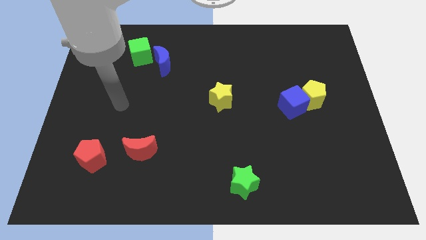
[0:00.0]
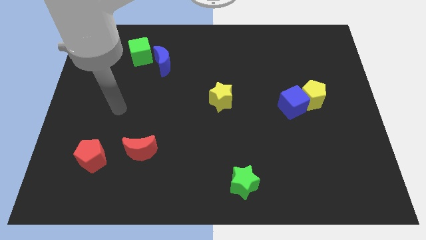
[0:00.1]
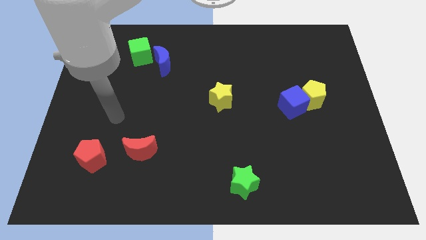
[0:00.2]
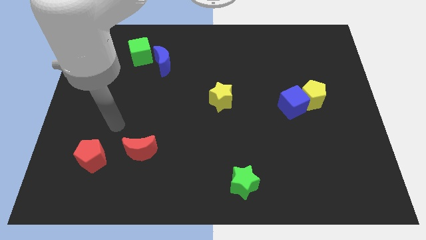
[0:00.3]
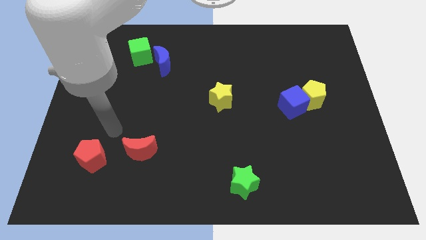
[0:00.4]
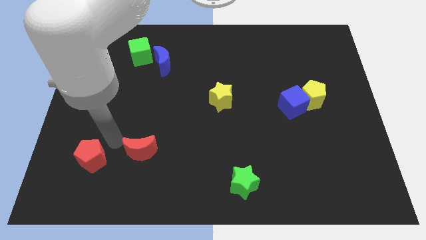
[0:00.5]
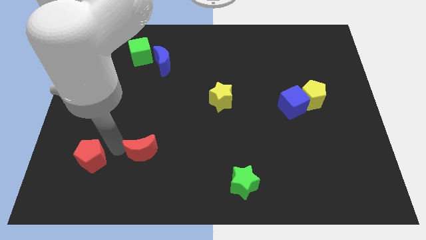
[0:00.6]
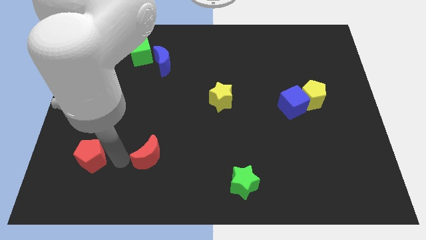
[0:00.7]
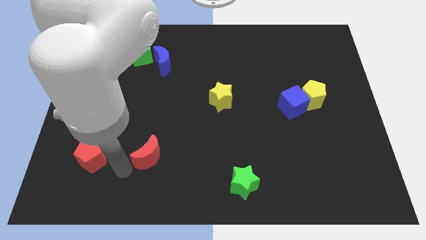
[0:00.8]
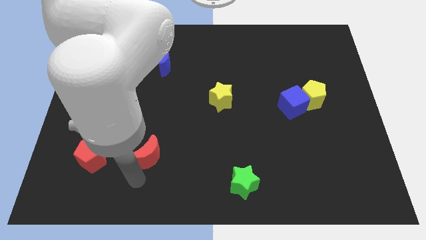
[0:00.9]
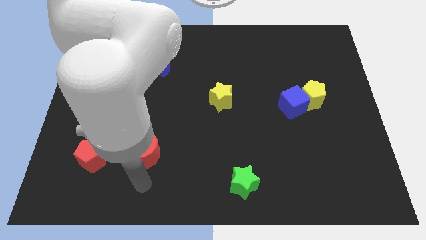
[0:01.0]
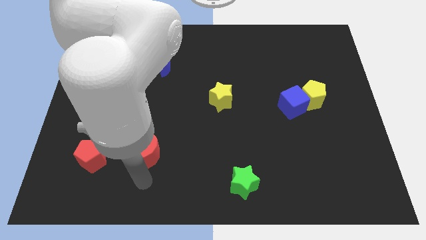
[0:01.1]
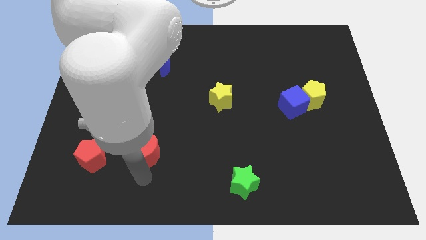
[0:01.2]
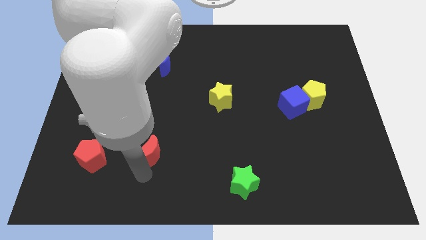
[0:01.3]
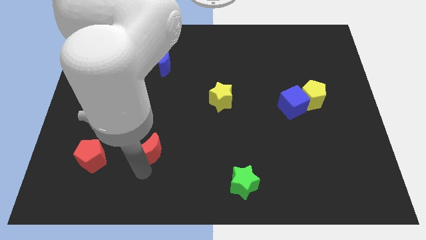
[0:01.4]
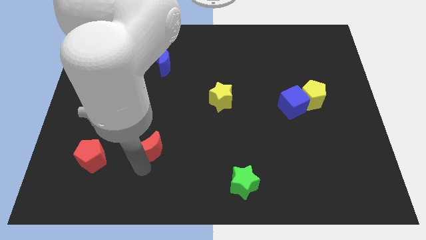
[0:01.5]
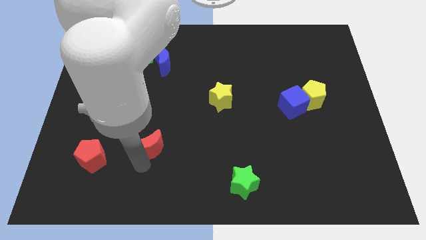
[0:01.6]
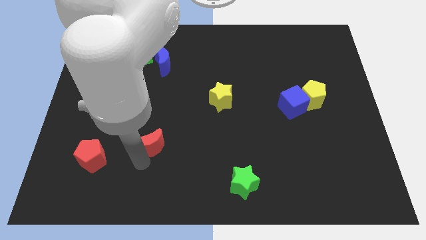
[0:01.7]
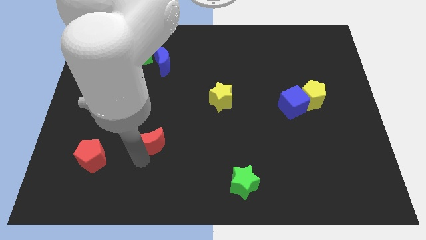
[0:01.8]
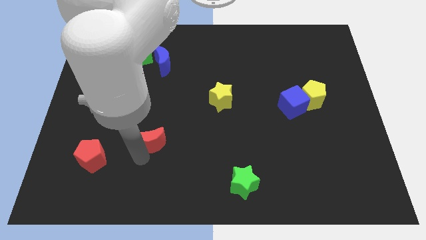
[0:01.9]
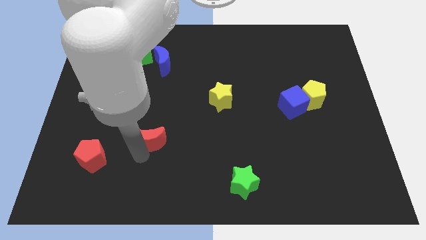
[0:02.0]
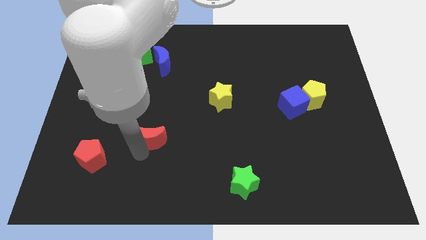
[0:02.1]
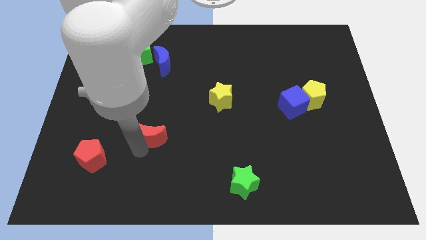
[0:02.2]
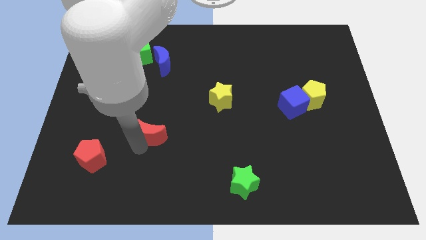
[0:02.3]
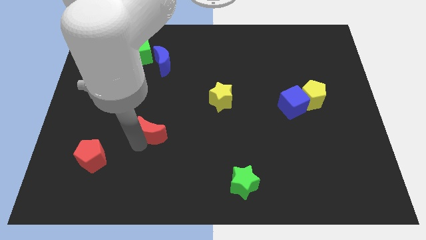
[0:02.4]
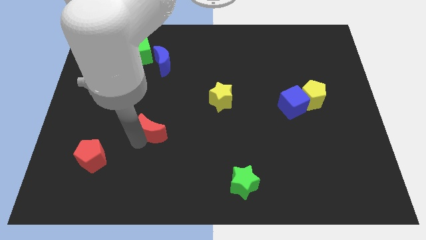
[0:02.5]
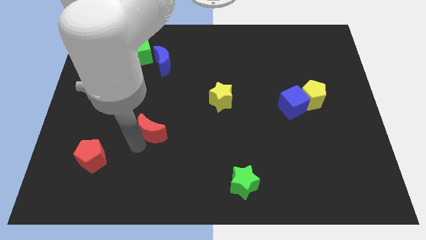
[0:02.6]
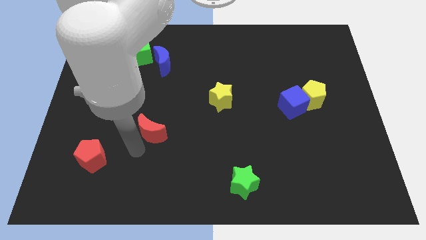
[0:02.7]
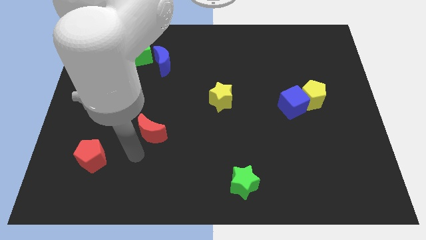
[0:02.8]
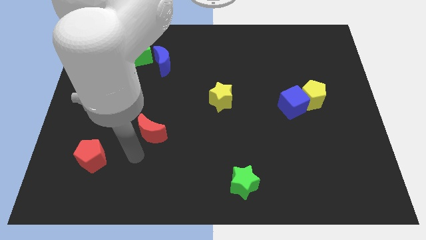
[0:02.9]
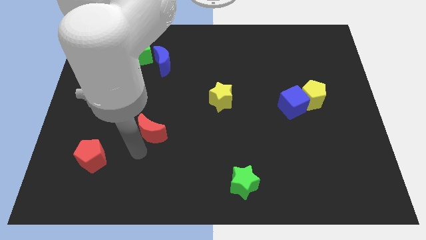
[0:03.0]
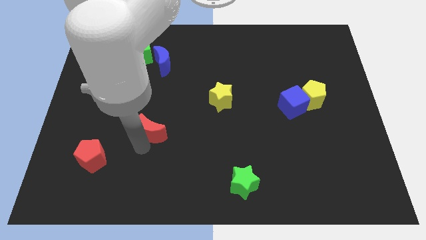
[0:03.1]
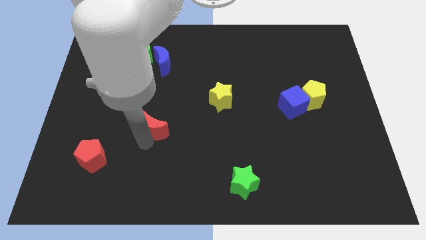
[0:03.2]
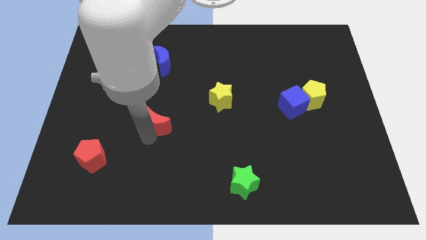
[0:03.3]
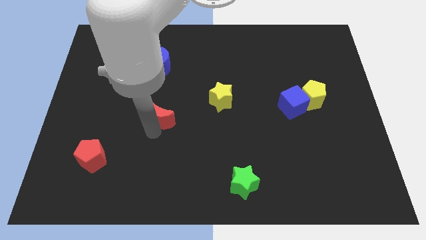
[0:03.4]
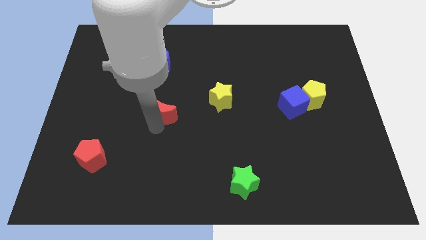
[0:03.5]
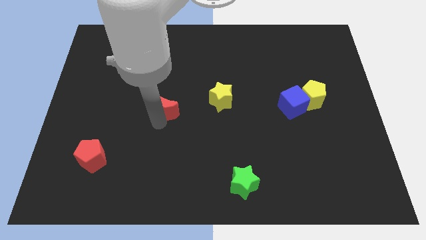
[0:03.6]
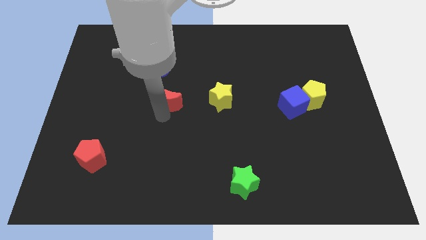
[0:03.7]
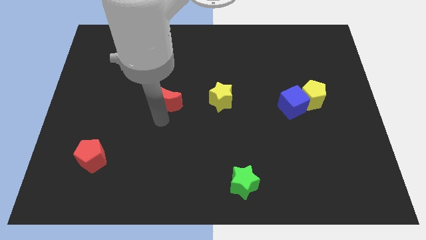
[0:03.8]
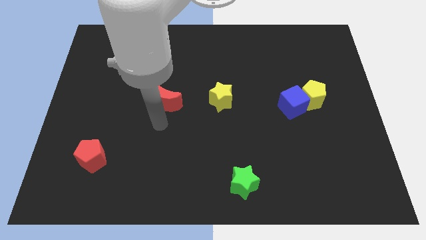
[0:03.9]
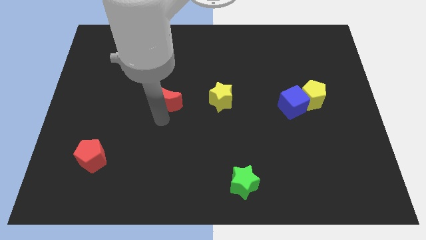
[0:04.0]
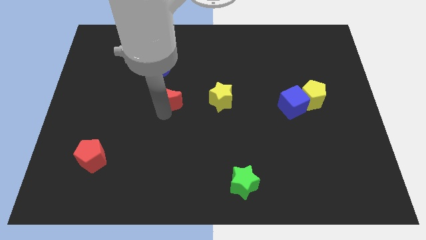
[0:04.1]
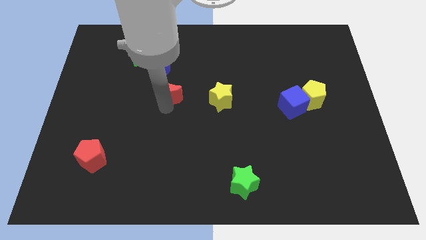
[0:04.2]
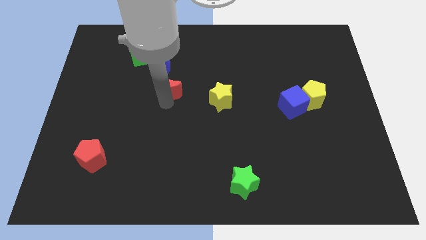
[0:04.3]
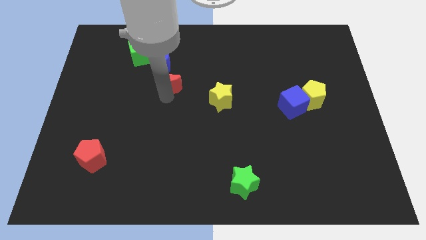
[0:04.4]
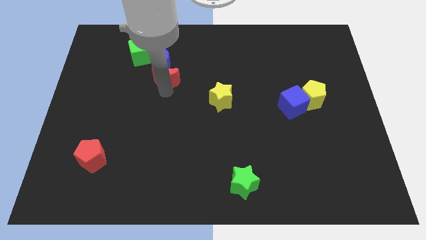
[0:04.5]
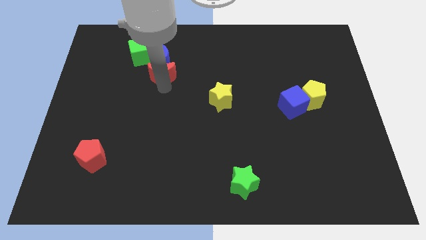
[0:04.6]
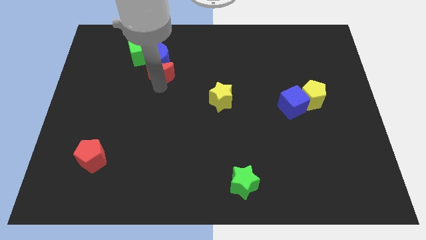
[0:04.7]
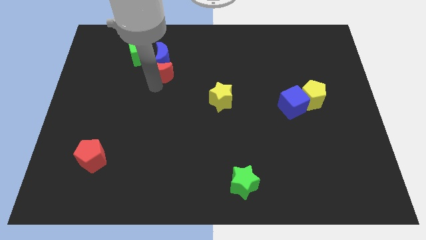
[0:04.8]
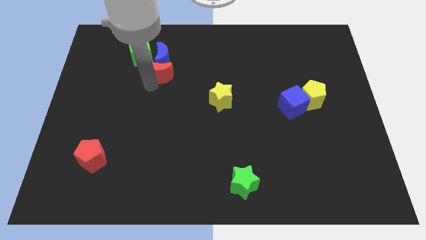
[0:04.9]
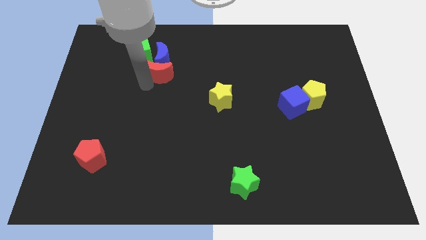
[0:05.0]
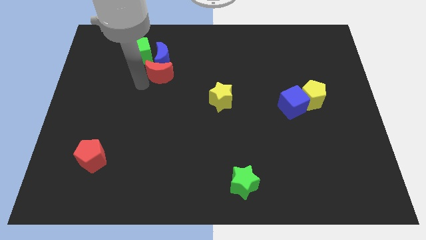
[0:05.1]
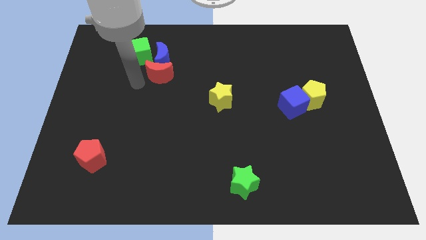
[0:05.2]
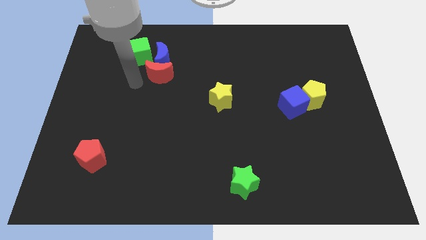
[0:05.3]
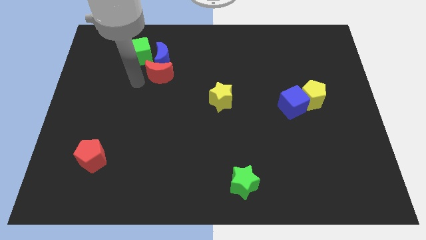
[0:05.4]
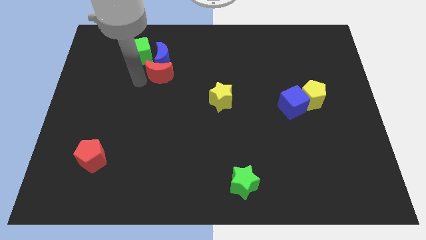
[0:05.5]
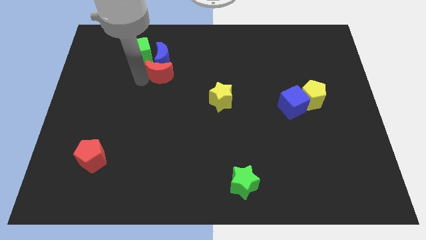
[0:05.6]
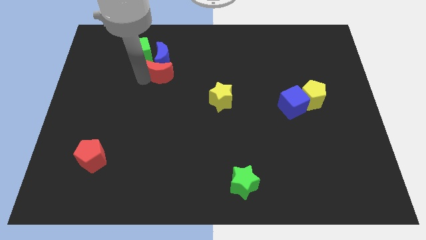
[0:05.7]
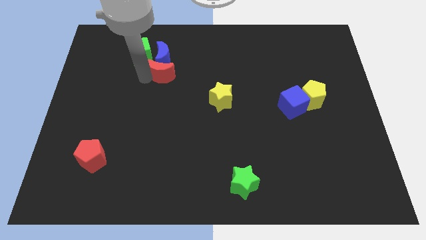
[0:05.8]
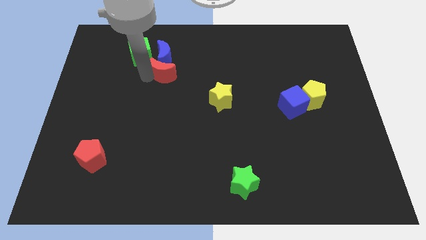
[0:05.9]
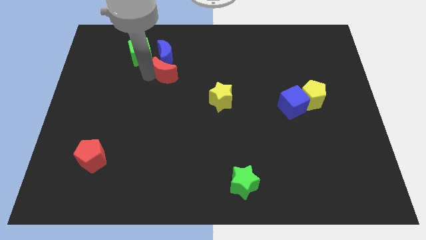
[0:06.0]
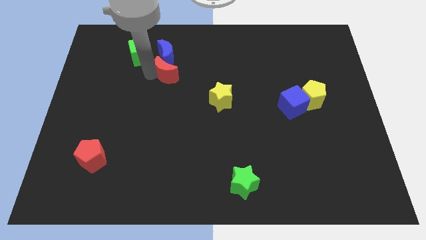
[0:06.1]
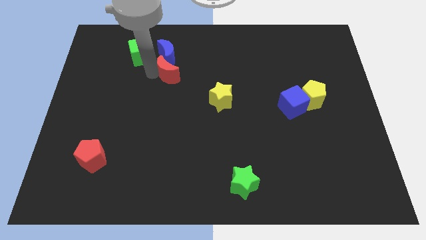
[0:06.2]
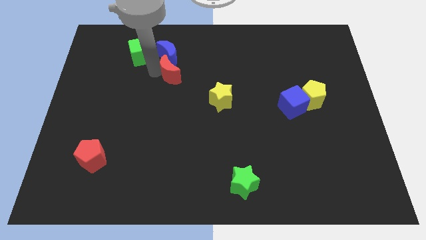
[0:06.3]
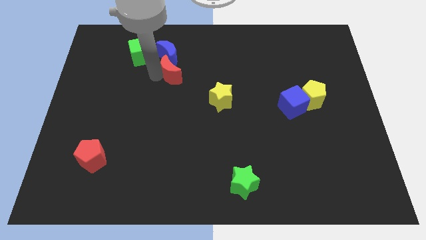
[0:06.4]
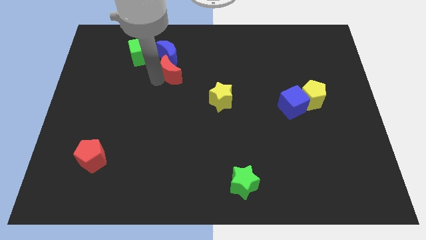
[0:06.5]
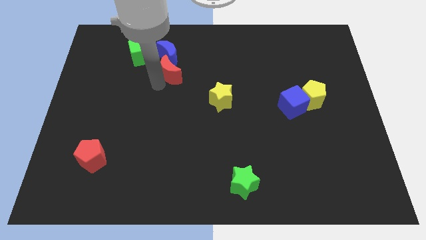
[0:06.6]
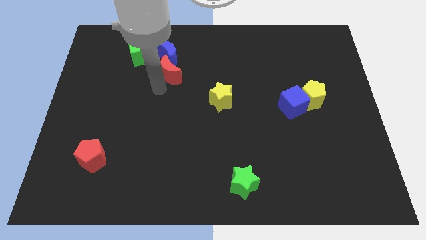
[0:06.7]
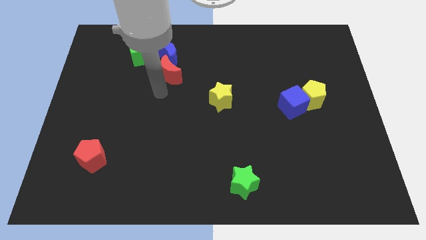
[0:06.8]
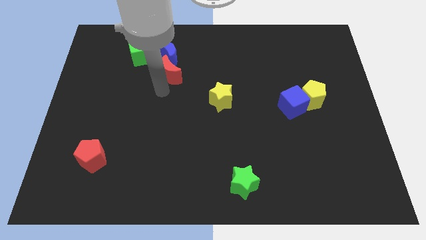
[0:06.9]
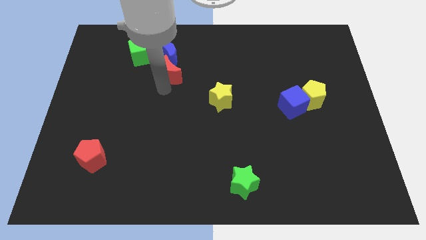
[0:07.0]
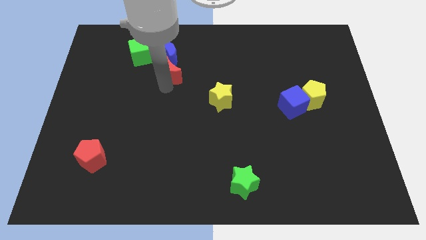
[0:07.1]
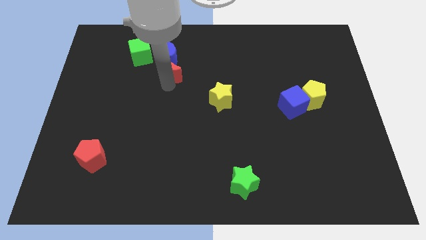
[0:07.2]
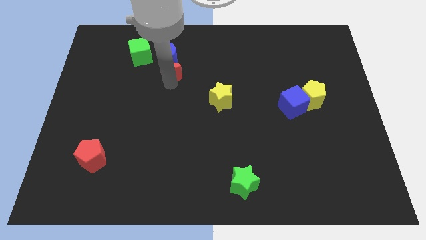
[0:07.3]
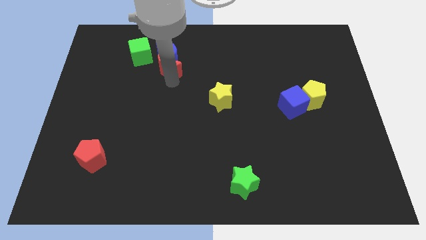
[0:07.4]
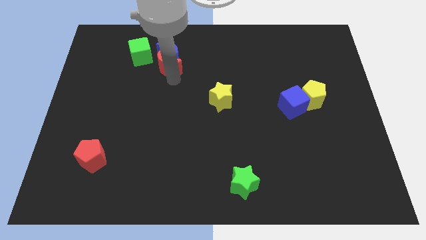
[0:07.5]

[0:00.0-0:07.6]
slide the red moon just right of the green cube
